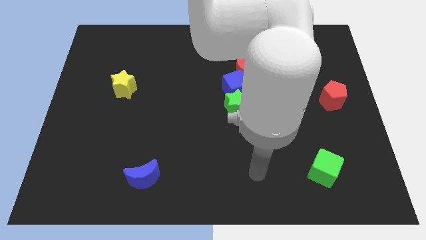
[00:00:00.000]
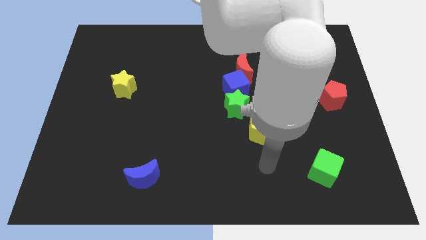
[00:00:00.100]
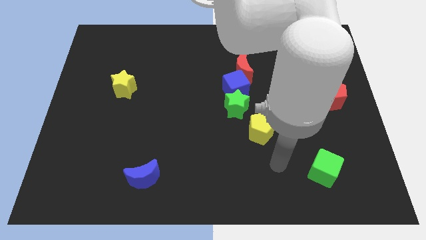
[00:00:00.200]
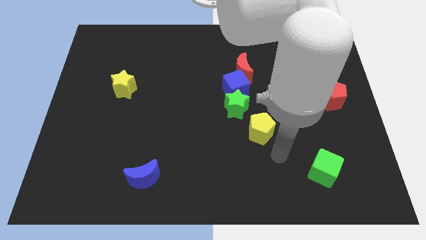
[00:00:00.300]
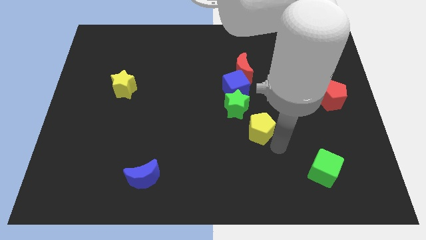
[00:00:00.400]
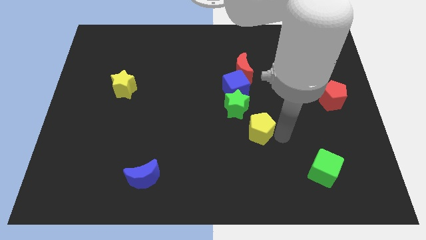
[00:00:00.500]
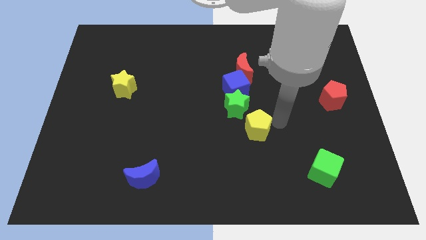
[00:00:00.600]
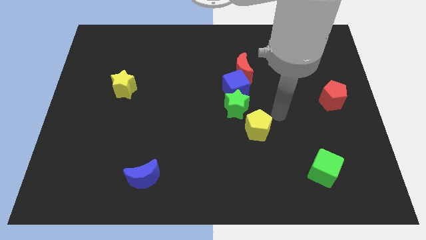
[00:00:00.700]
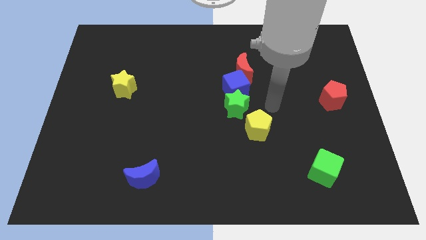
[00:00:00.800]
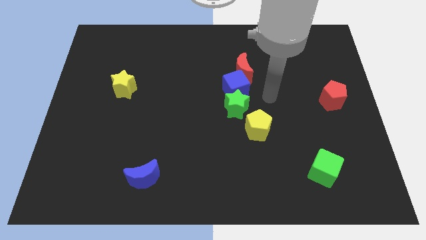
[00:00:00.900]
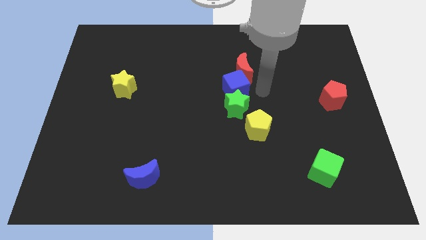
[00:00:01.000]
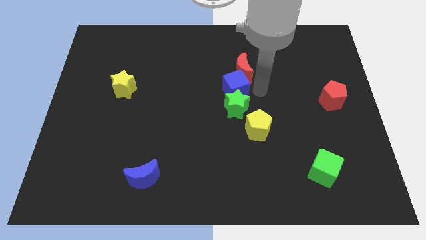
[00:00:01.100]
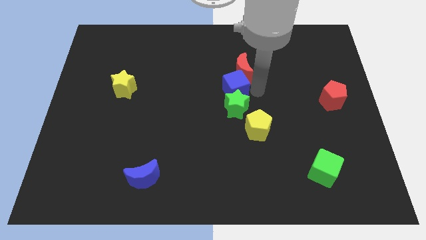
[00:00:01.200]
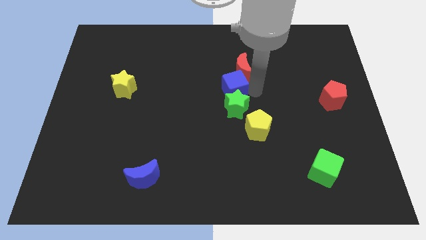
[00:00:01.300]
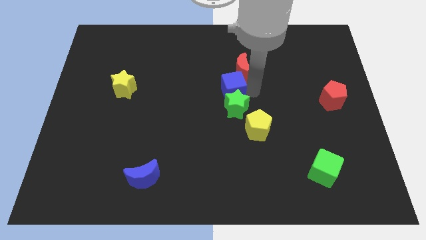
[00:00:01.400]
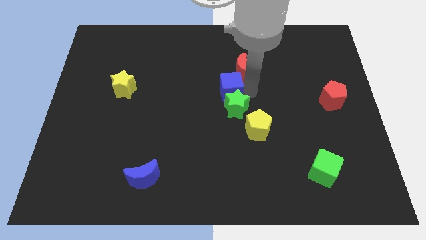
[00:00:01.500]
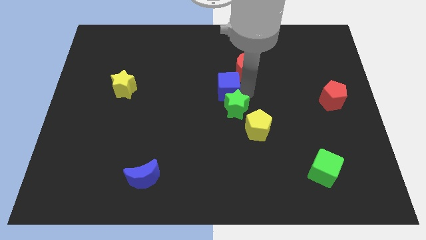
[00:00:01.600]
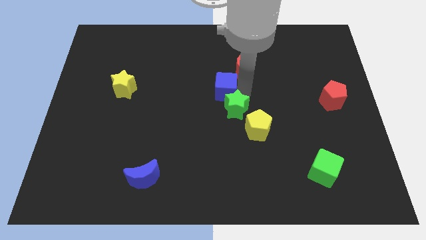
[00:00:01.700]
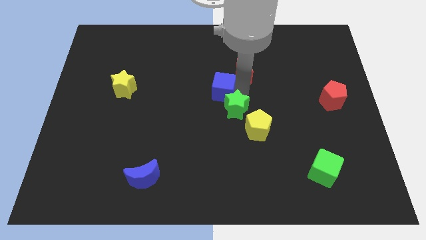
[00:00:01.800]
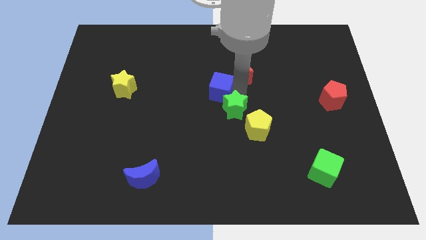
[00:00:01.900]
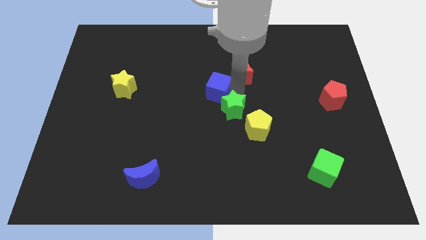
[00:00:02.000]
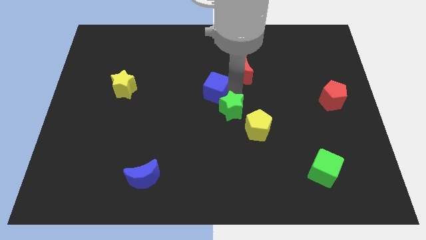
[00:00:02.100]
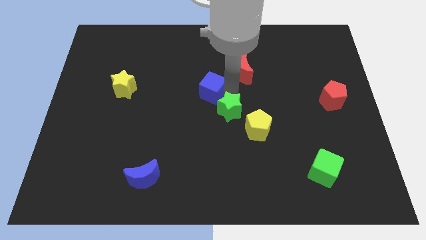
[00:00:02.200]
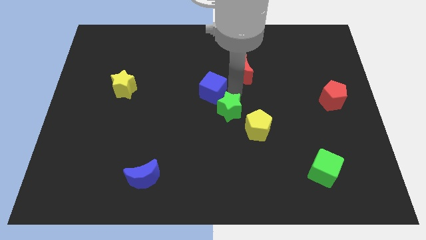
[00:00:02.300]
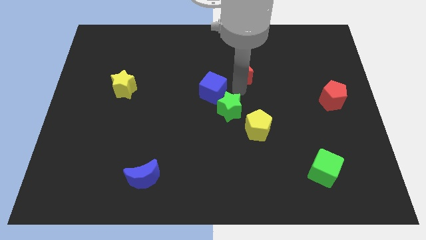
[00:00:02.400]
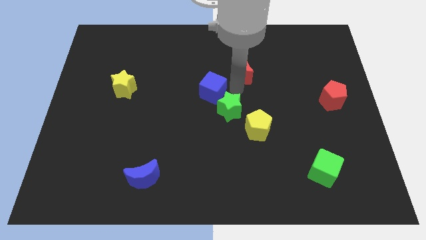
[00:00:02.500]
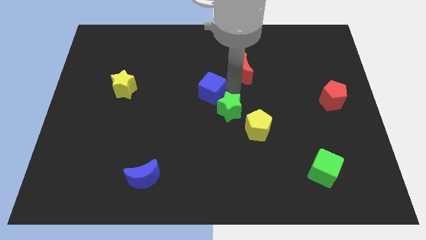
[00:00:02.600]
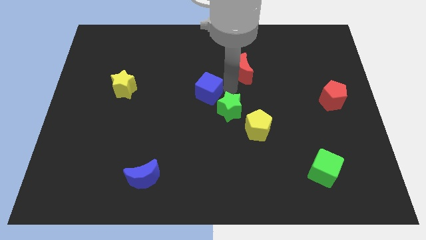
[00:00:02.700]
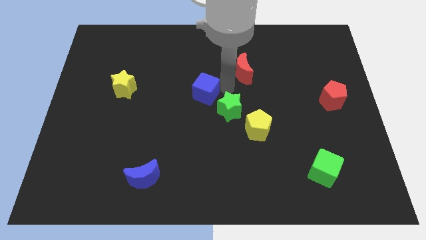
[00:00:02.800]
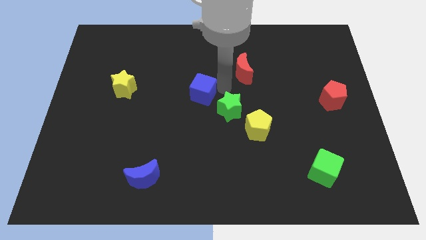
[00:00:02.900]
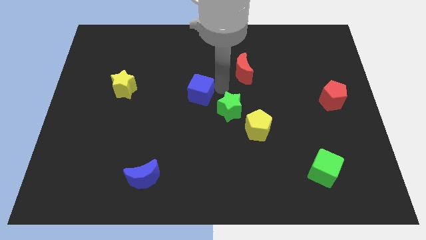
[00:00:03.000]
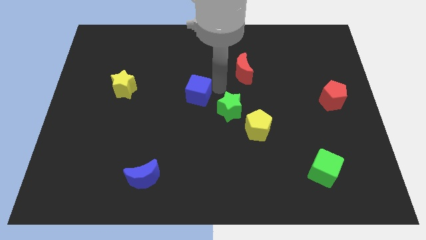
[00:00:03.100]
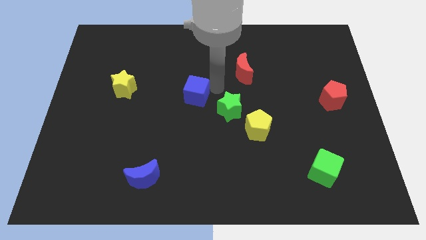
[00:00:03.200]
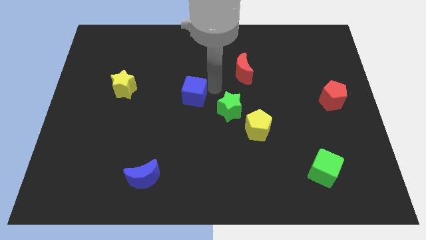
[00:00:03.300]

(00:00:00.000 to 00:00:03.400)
move the blue cube away from the green star and red moon

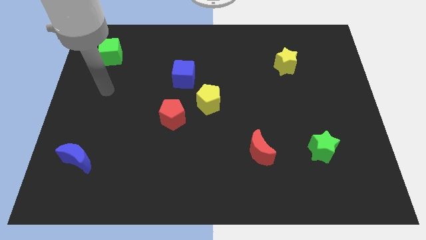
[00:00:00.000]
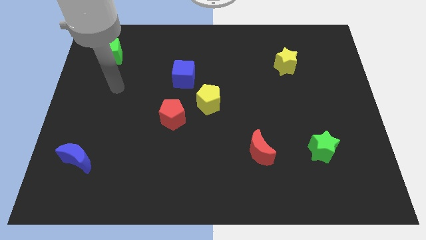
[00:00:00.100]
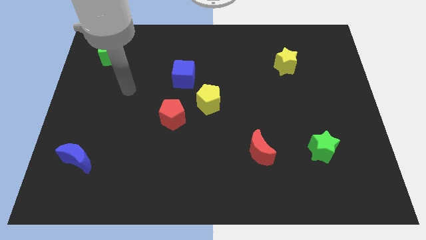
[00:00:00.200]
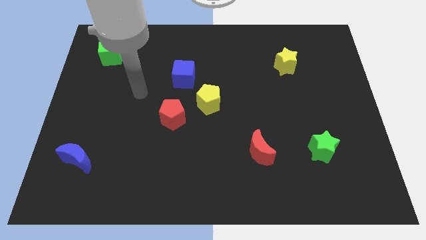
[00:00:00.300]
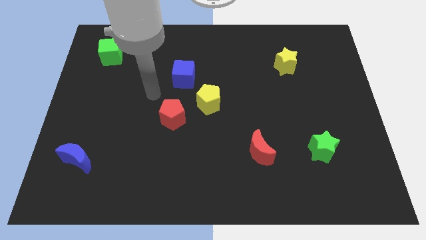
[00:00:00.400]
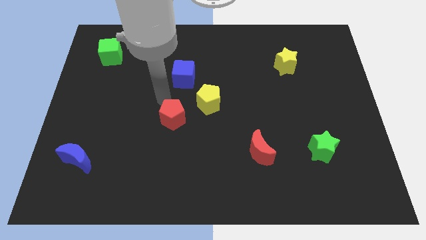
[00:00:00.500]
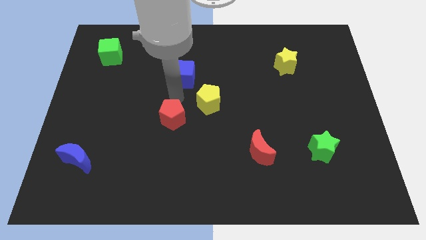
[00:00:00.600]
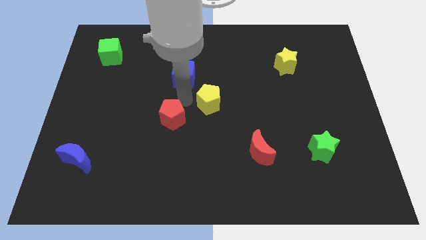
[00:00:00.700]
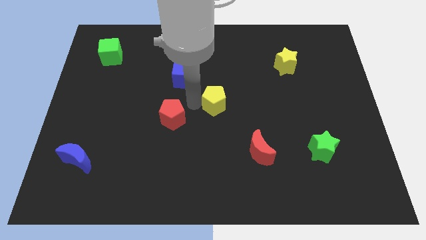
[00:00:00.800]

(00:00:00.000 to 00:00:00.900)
move the red pentagon away from the yellow pentagon

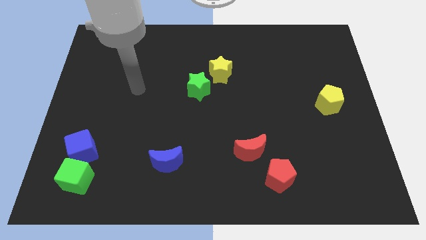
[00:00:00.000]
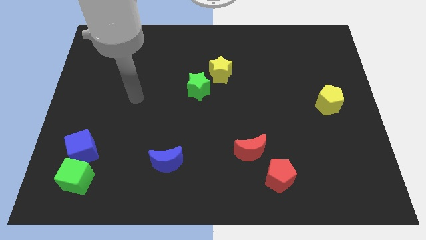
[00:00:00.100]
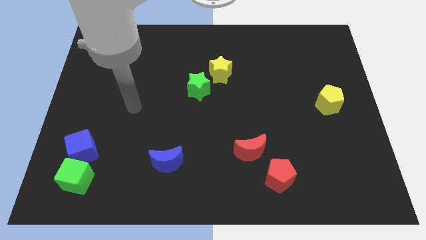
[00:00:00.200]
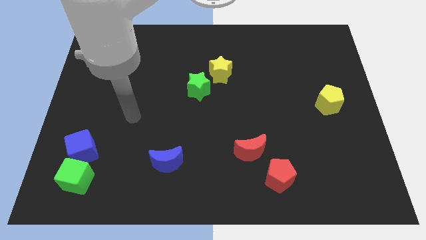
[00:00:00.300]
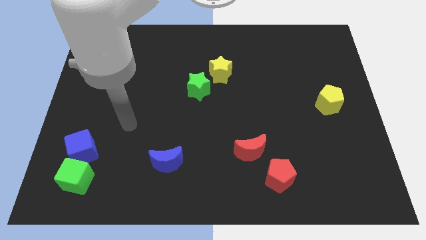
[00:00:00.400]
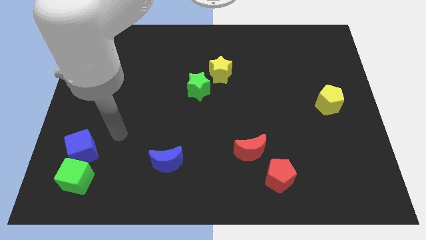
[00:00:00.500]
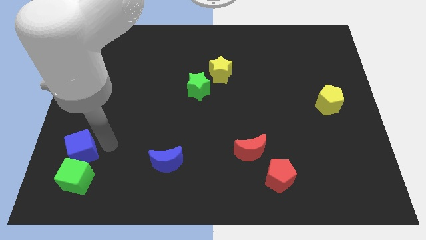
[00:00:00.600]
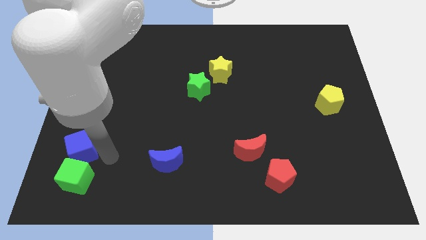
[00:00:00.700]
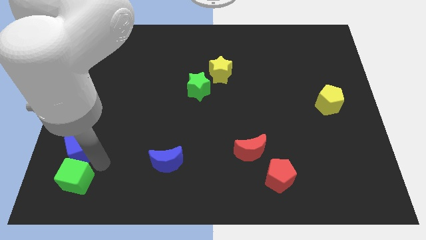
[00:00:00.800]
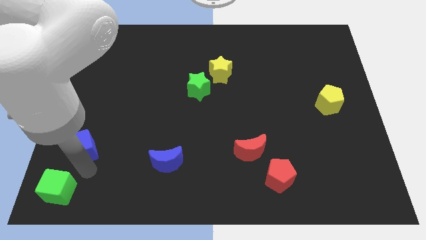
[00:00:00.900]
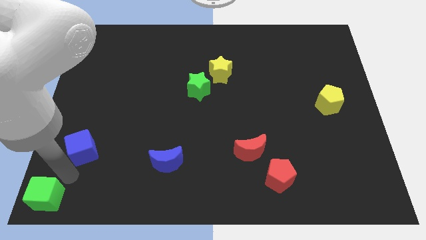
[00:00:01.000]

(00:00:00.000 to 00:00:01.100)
separate the blue cube from the green cube

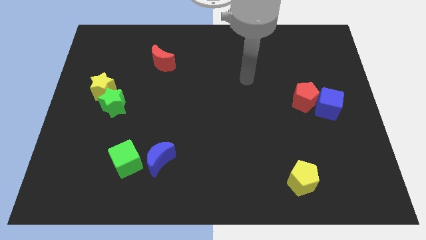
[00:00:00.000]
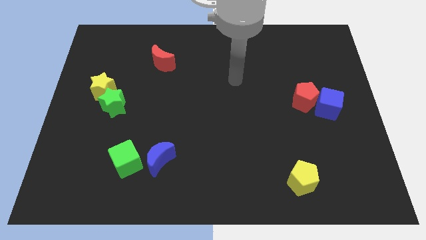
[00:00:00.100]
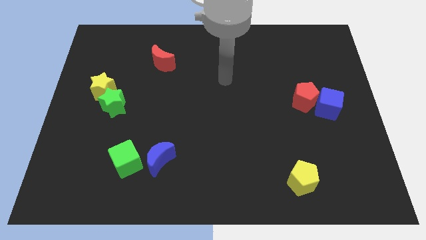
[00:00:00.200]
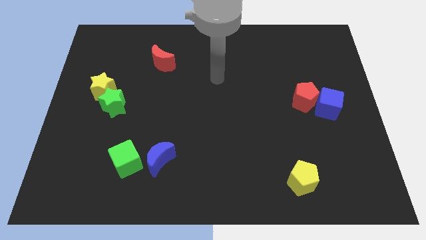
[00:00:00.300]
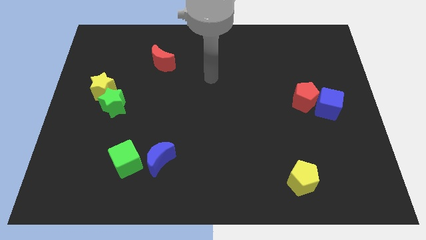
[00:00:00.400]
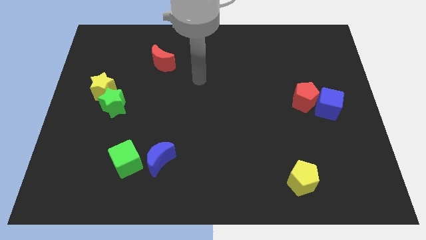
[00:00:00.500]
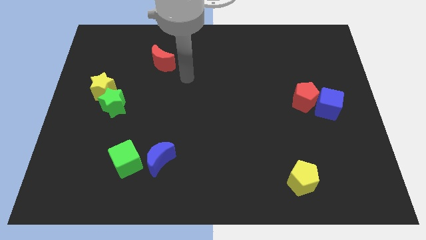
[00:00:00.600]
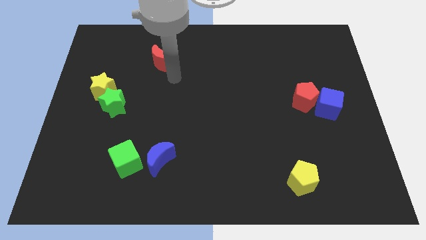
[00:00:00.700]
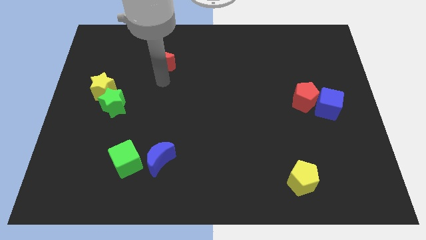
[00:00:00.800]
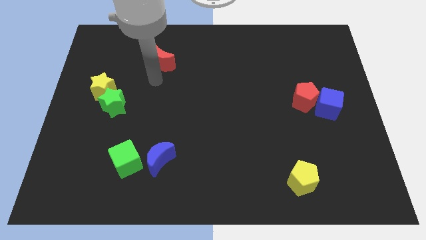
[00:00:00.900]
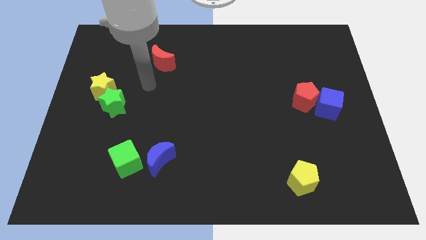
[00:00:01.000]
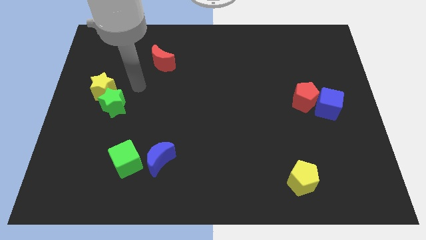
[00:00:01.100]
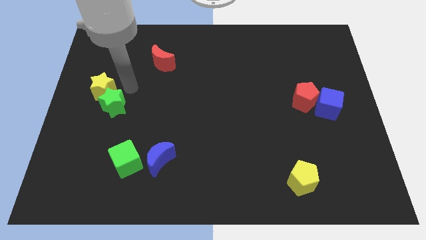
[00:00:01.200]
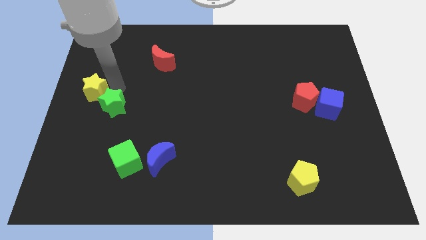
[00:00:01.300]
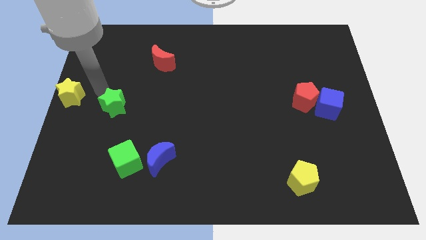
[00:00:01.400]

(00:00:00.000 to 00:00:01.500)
move the green star away from the yellow star

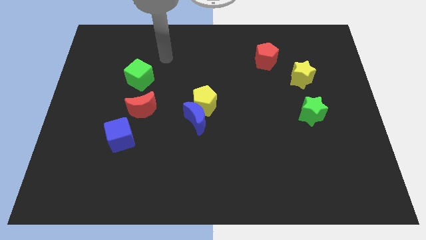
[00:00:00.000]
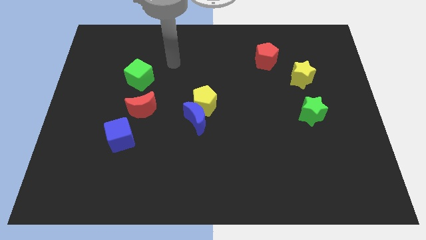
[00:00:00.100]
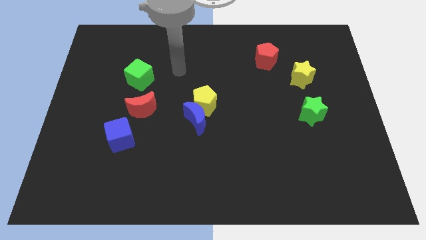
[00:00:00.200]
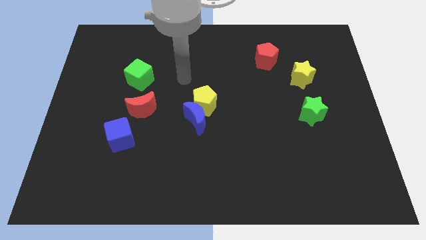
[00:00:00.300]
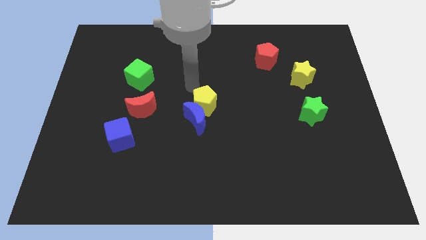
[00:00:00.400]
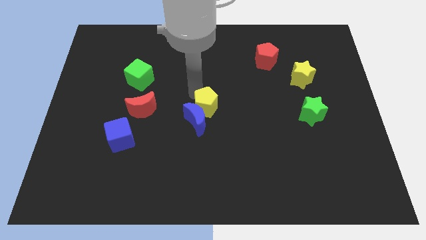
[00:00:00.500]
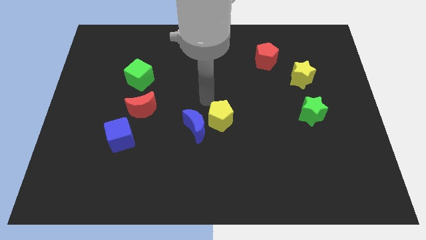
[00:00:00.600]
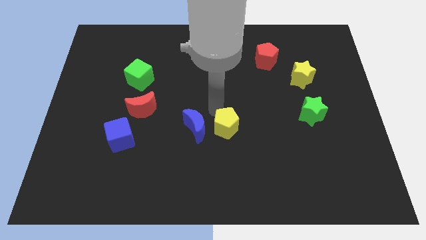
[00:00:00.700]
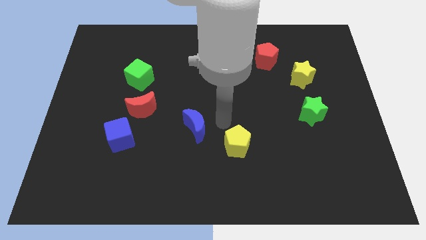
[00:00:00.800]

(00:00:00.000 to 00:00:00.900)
move the blue moon away from the yellow pentagon

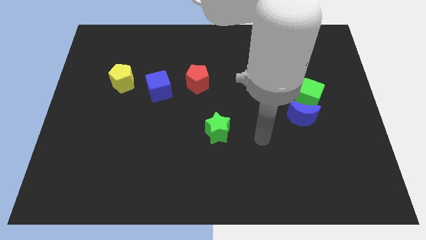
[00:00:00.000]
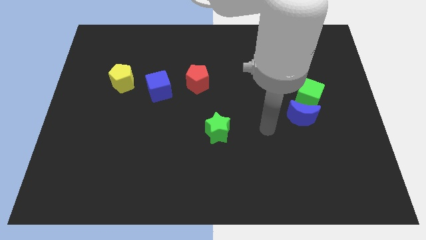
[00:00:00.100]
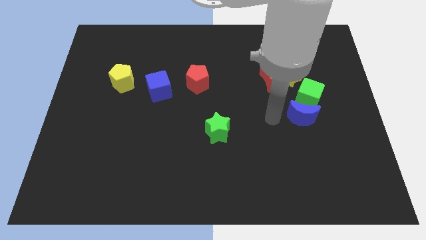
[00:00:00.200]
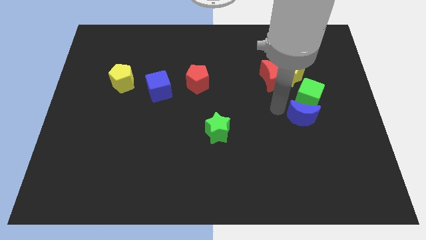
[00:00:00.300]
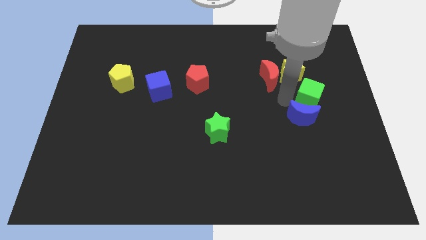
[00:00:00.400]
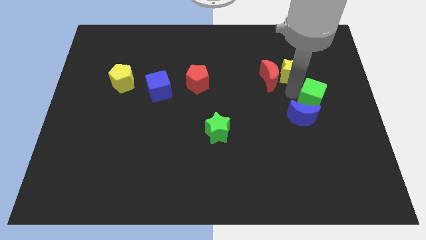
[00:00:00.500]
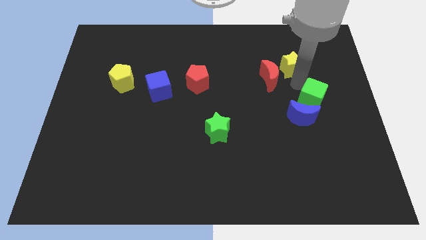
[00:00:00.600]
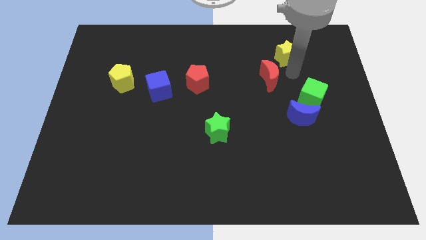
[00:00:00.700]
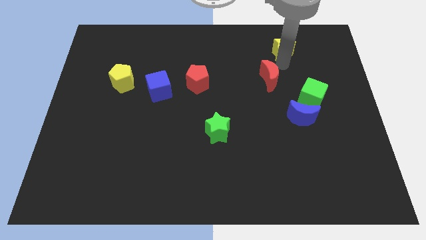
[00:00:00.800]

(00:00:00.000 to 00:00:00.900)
move the red moon away from the yellow star

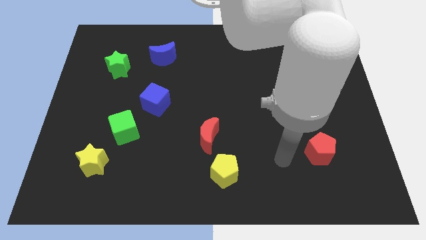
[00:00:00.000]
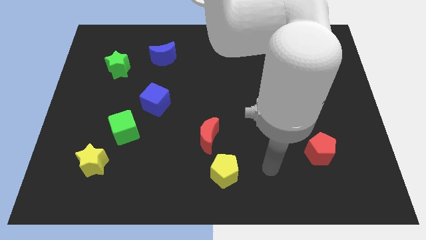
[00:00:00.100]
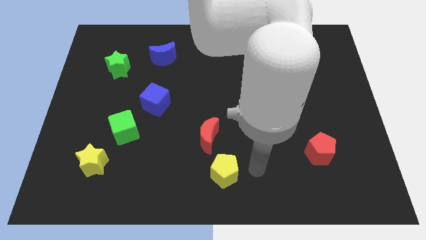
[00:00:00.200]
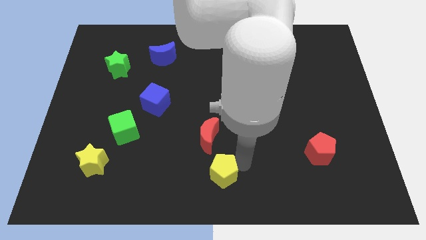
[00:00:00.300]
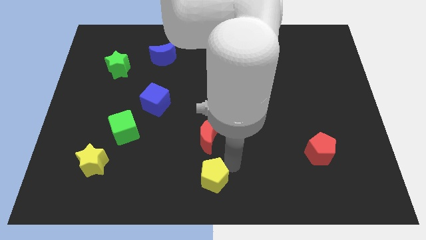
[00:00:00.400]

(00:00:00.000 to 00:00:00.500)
move the red moon away from the yellow pentagon
